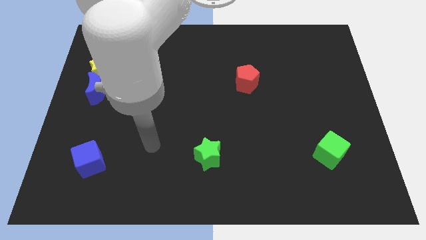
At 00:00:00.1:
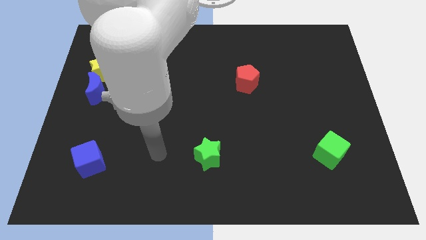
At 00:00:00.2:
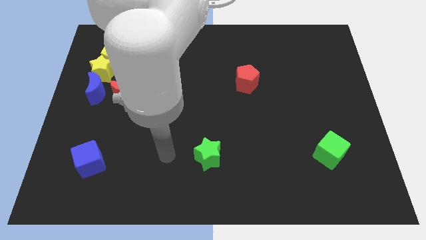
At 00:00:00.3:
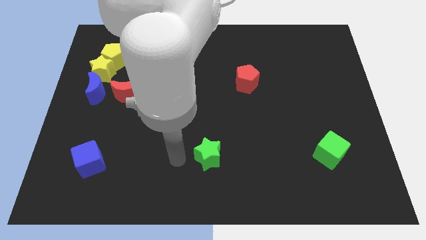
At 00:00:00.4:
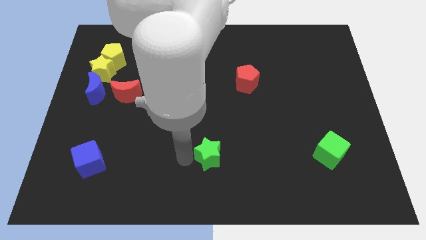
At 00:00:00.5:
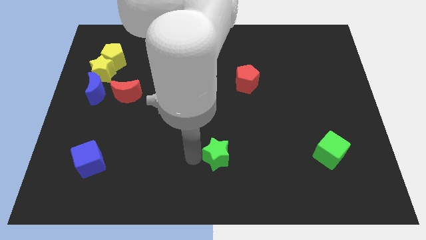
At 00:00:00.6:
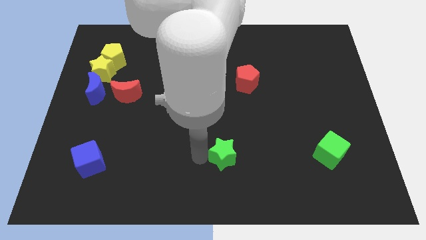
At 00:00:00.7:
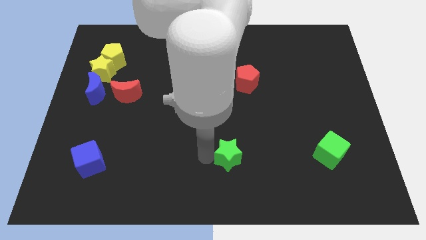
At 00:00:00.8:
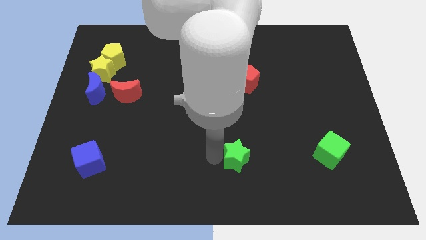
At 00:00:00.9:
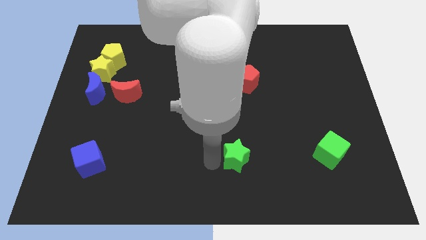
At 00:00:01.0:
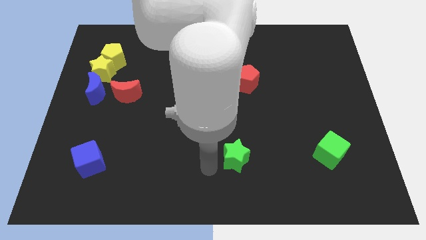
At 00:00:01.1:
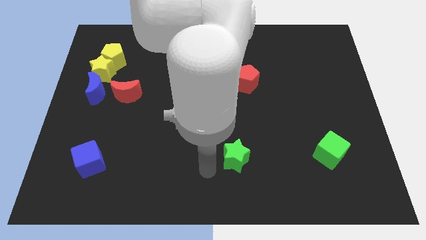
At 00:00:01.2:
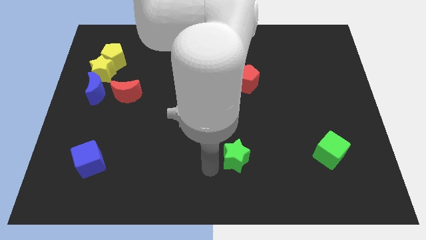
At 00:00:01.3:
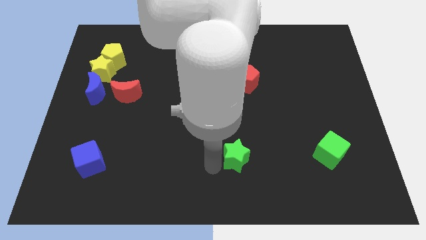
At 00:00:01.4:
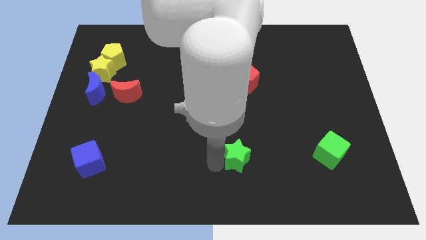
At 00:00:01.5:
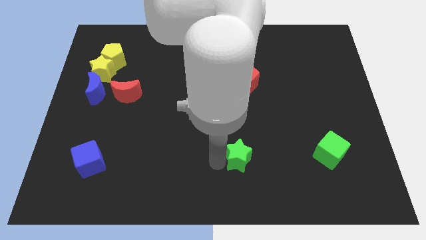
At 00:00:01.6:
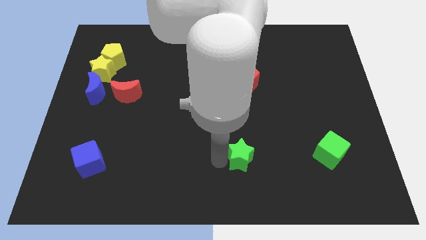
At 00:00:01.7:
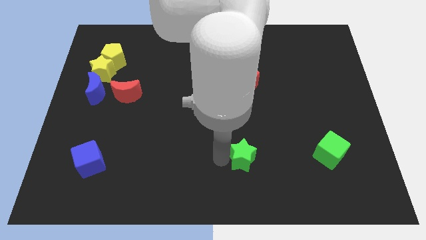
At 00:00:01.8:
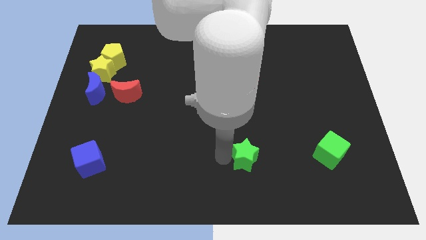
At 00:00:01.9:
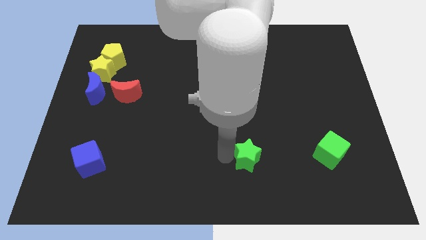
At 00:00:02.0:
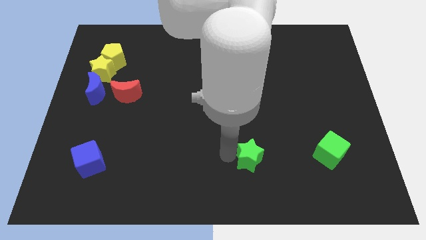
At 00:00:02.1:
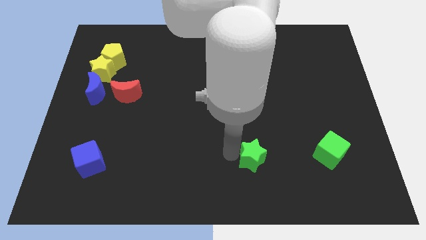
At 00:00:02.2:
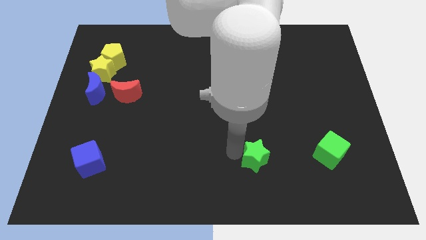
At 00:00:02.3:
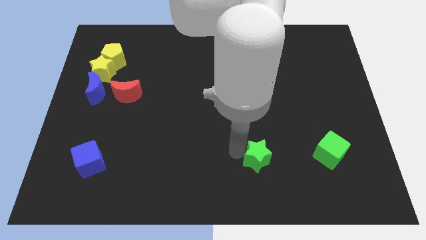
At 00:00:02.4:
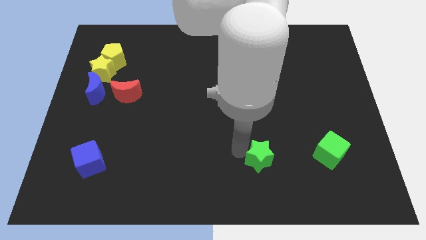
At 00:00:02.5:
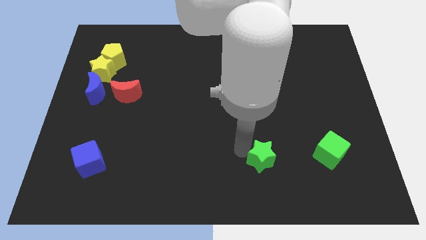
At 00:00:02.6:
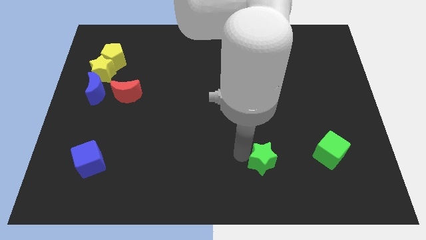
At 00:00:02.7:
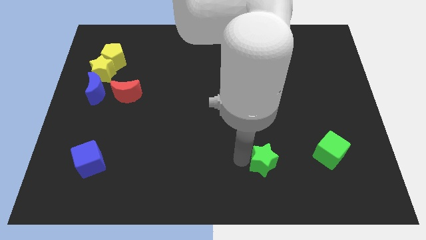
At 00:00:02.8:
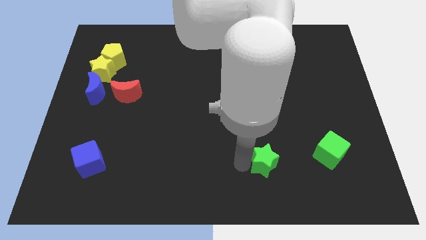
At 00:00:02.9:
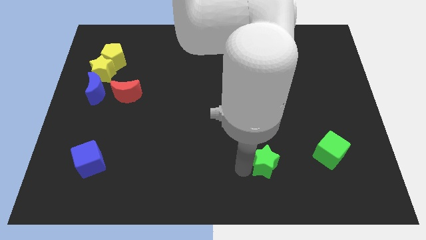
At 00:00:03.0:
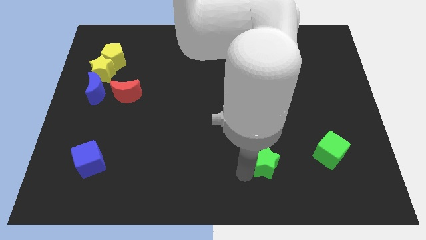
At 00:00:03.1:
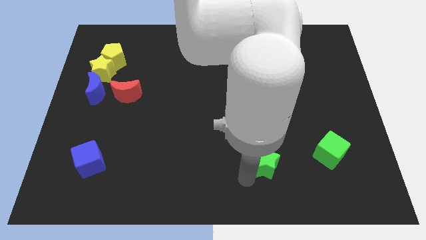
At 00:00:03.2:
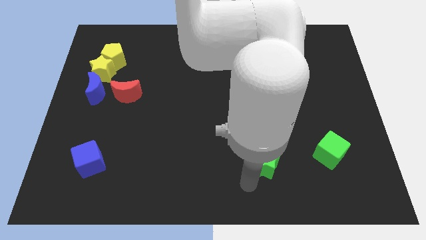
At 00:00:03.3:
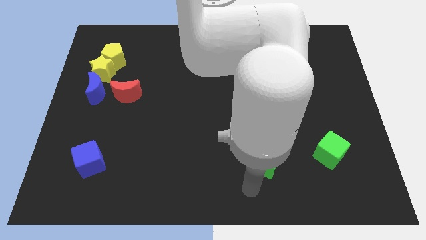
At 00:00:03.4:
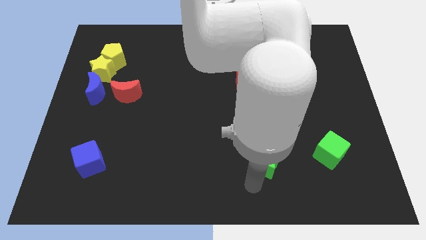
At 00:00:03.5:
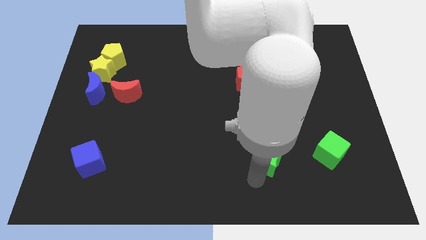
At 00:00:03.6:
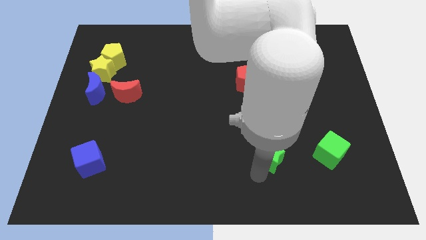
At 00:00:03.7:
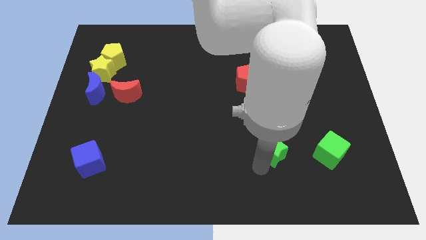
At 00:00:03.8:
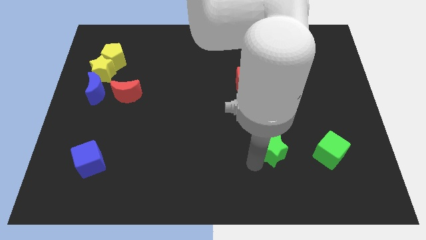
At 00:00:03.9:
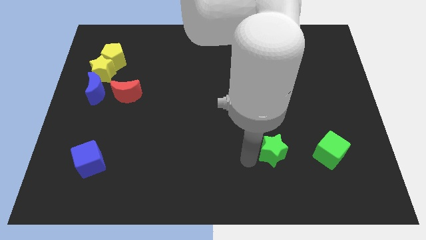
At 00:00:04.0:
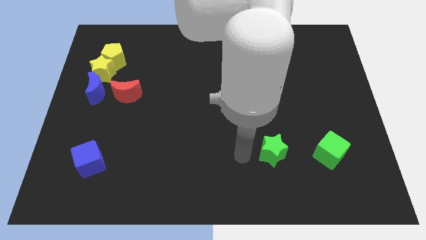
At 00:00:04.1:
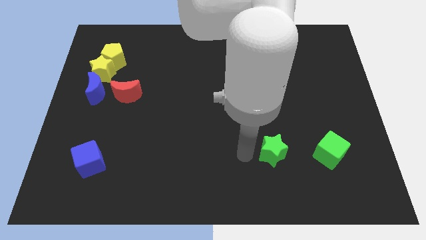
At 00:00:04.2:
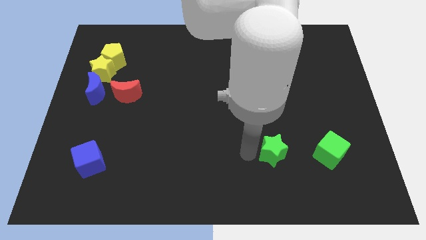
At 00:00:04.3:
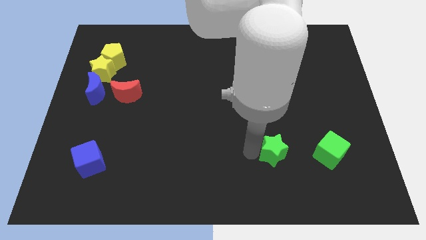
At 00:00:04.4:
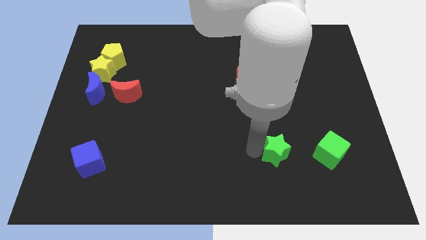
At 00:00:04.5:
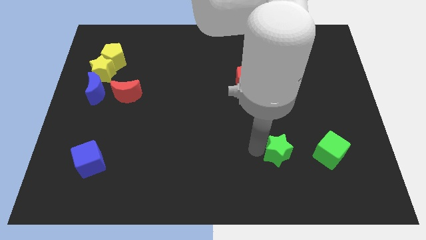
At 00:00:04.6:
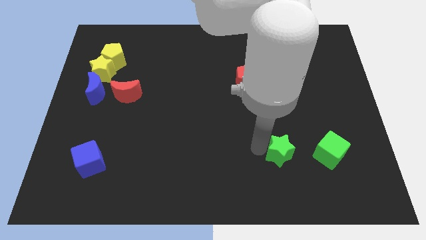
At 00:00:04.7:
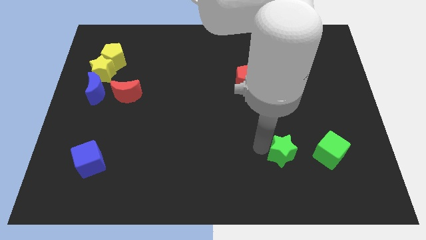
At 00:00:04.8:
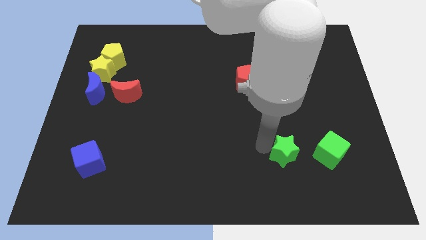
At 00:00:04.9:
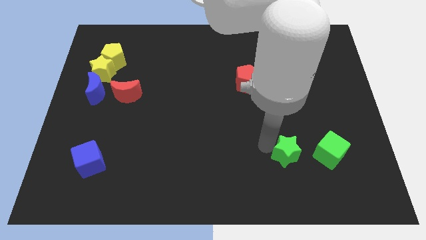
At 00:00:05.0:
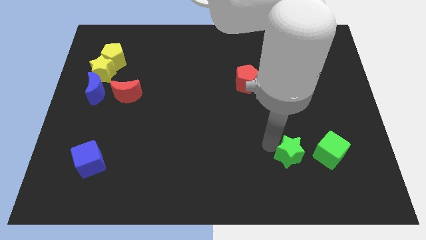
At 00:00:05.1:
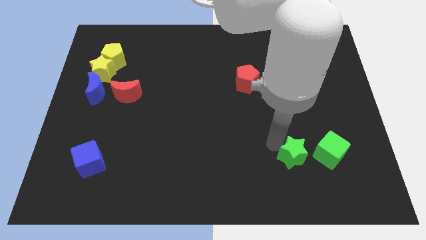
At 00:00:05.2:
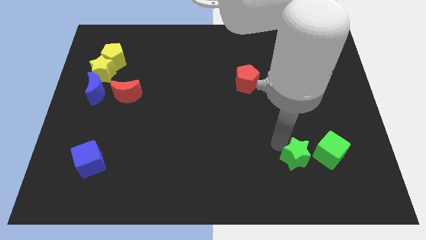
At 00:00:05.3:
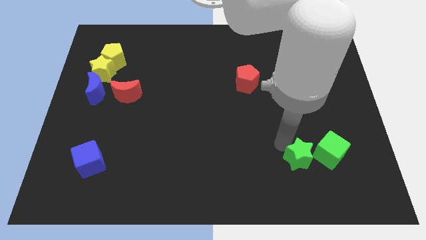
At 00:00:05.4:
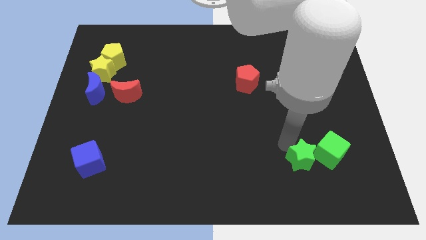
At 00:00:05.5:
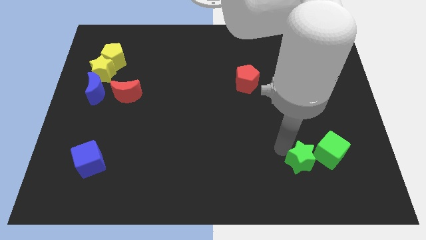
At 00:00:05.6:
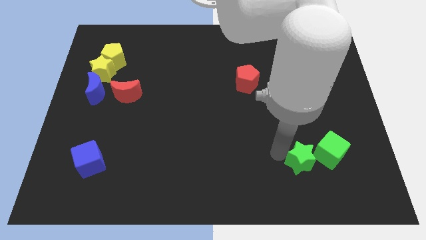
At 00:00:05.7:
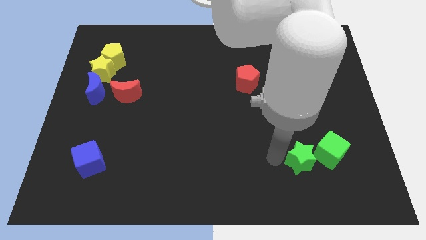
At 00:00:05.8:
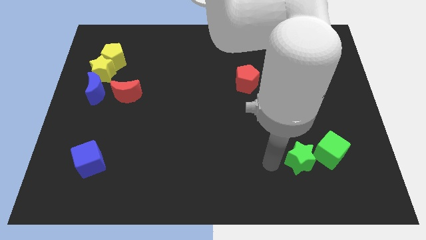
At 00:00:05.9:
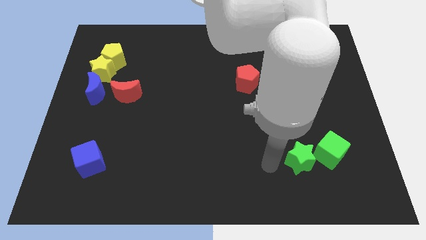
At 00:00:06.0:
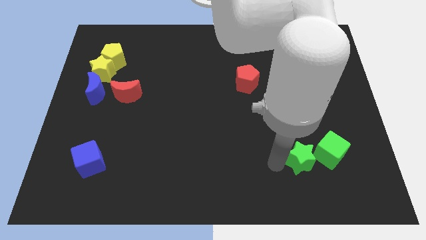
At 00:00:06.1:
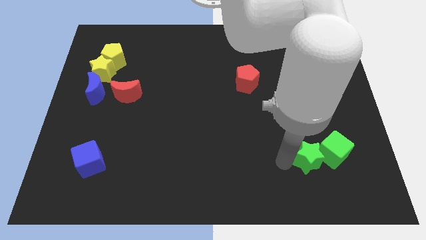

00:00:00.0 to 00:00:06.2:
slide the green star next to the green cube

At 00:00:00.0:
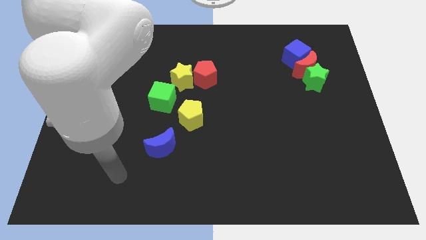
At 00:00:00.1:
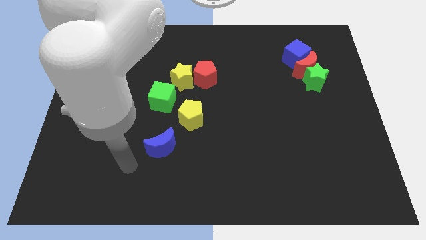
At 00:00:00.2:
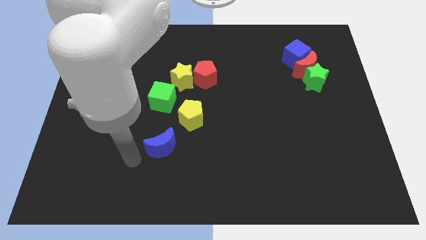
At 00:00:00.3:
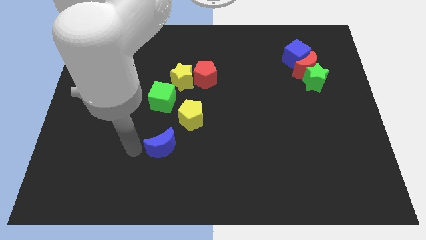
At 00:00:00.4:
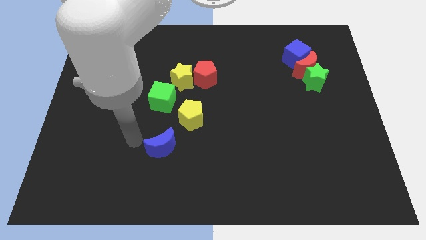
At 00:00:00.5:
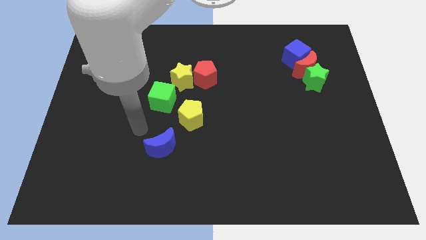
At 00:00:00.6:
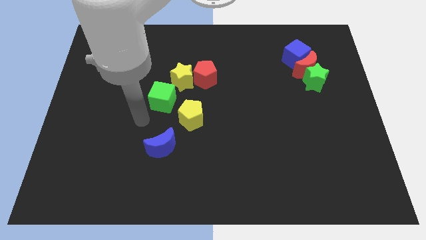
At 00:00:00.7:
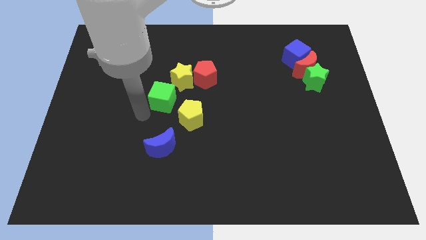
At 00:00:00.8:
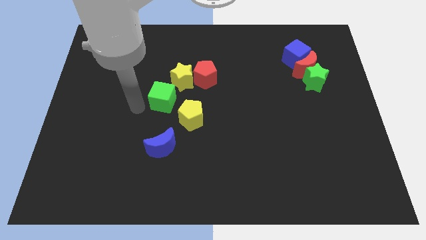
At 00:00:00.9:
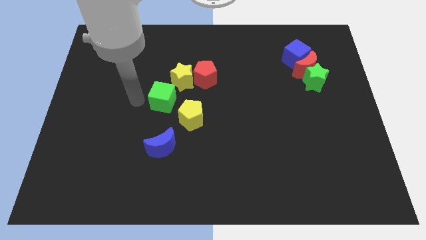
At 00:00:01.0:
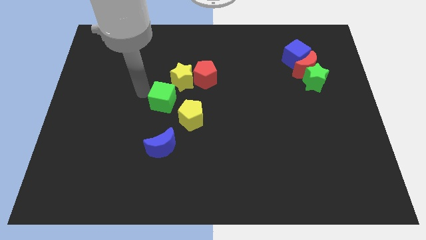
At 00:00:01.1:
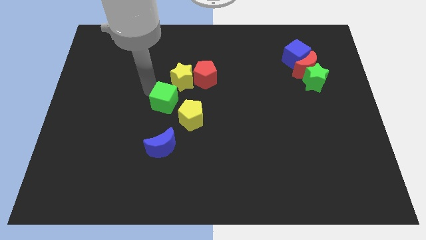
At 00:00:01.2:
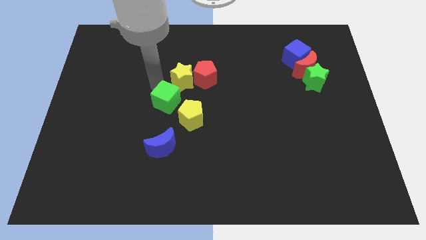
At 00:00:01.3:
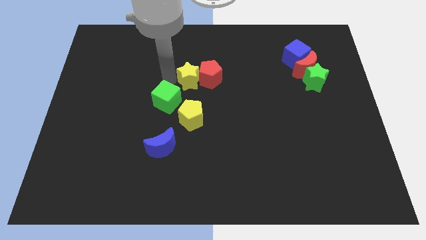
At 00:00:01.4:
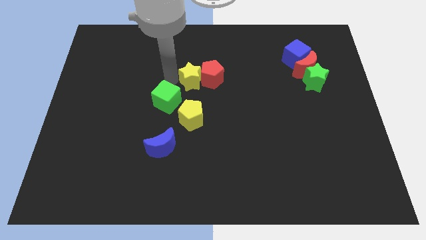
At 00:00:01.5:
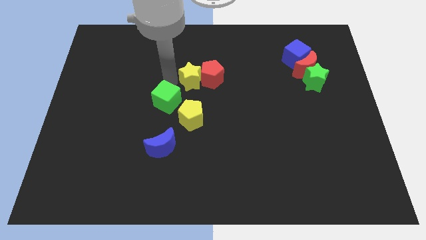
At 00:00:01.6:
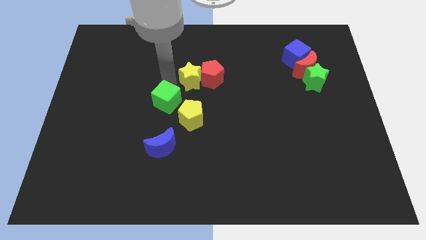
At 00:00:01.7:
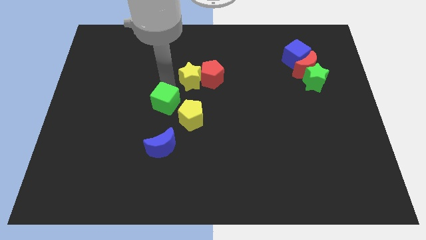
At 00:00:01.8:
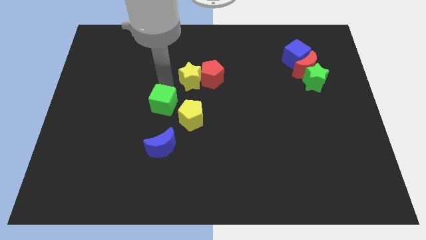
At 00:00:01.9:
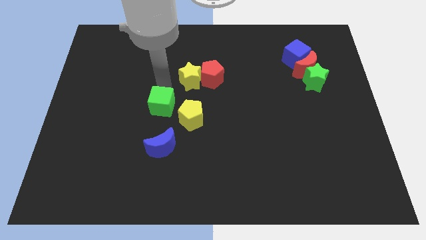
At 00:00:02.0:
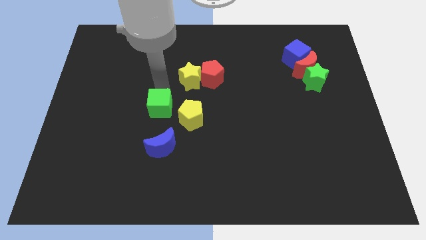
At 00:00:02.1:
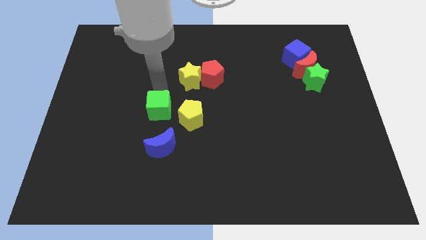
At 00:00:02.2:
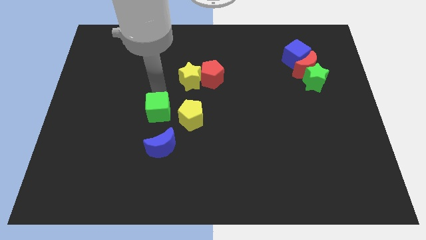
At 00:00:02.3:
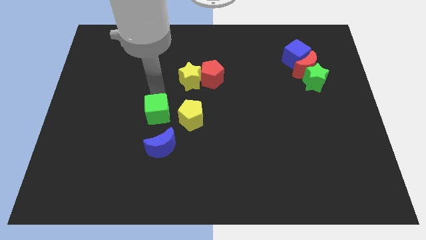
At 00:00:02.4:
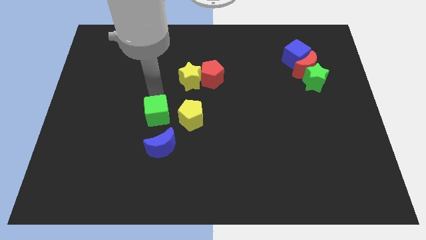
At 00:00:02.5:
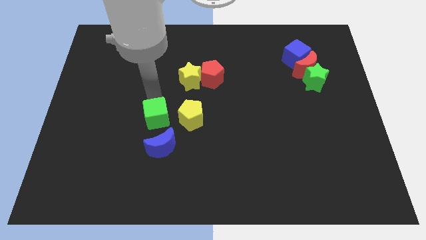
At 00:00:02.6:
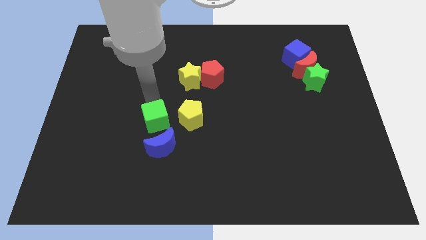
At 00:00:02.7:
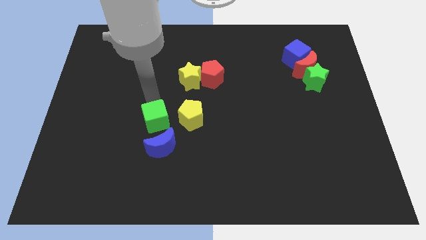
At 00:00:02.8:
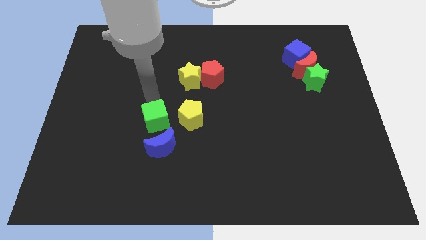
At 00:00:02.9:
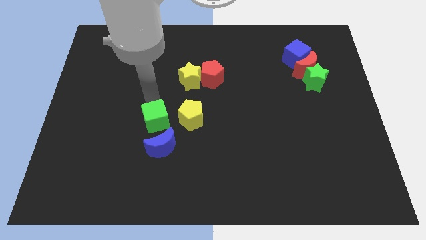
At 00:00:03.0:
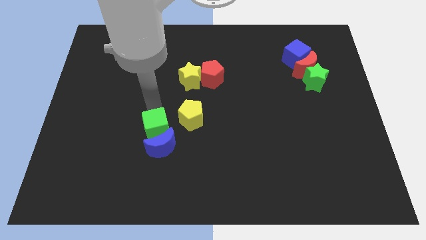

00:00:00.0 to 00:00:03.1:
push the green cube to the blue moon
